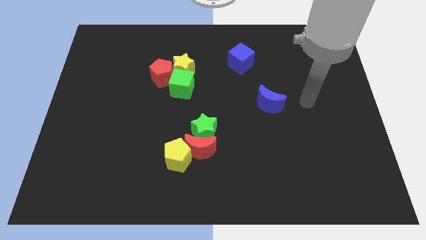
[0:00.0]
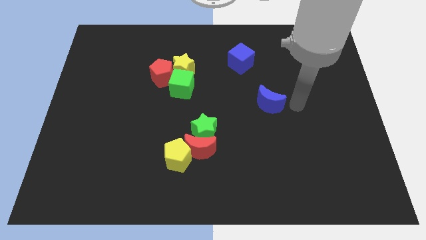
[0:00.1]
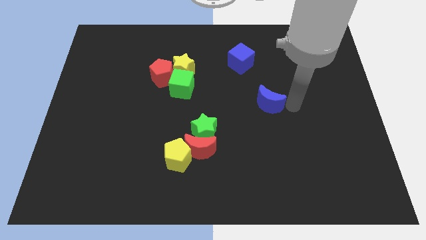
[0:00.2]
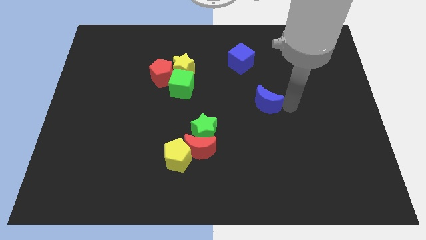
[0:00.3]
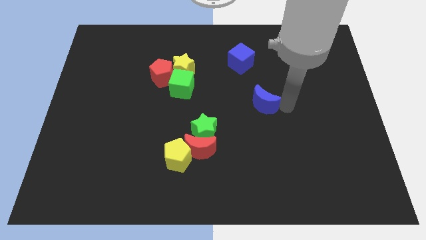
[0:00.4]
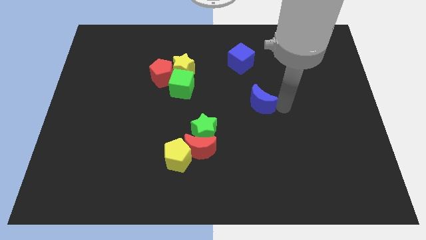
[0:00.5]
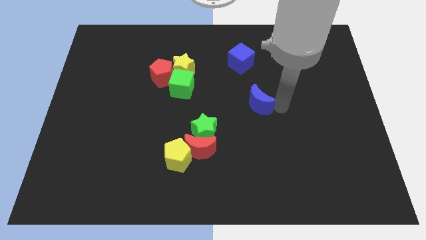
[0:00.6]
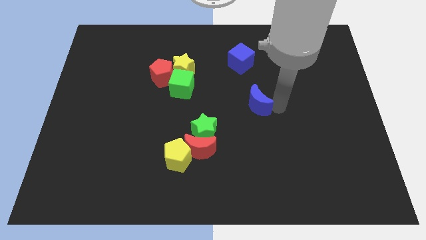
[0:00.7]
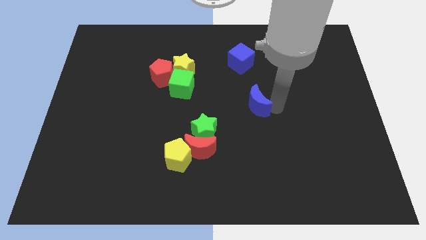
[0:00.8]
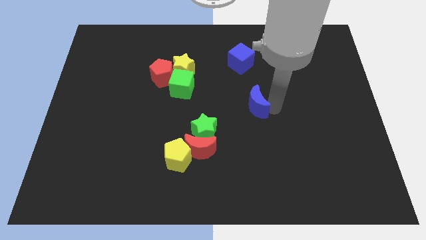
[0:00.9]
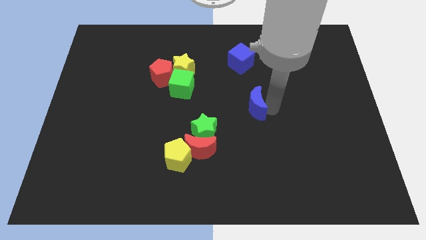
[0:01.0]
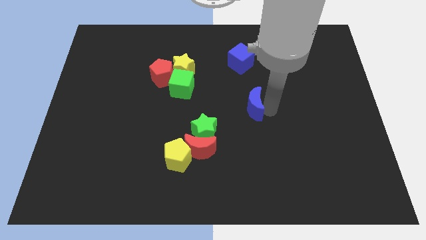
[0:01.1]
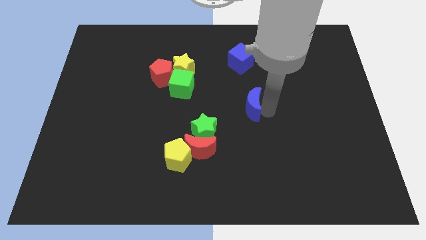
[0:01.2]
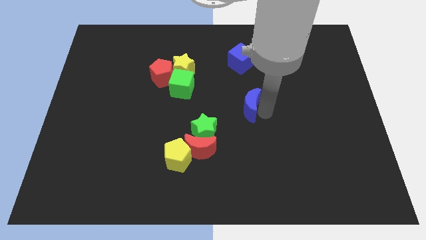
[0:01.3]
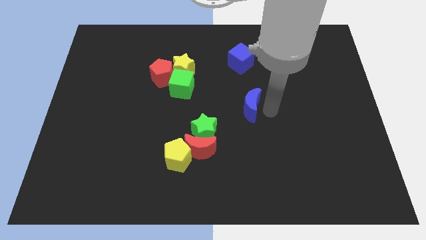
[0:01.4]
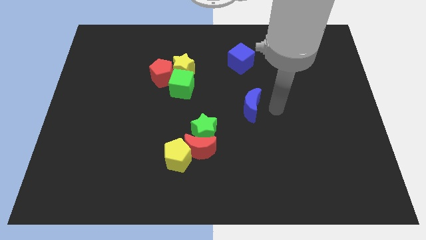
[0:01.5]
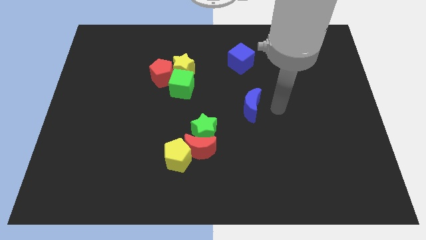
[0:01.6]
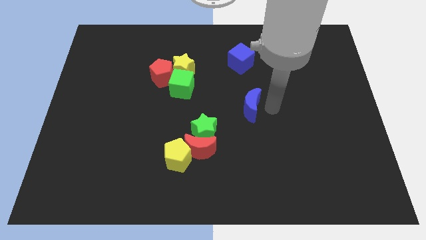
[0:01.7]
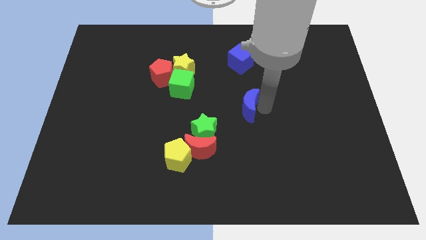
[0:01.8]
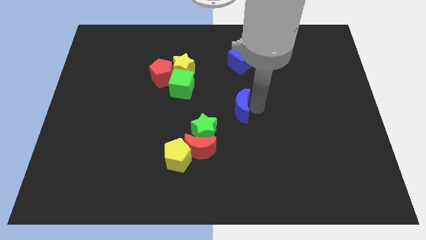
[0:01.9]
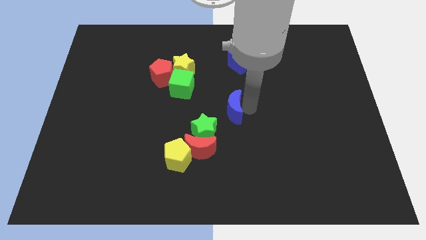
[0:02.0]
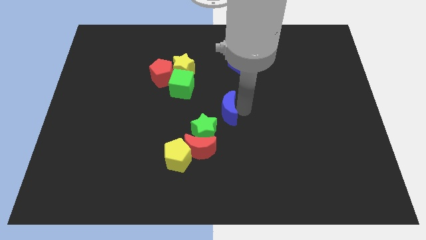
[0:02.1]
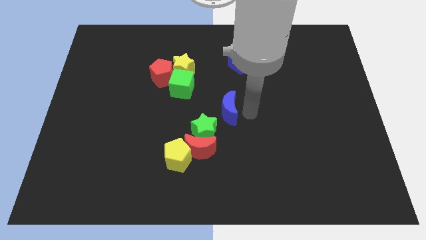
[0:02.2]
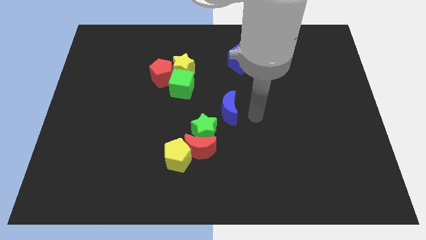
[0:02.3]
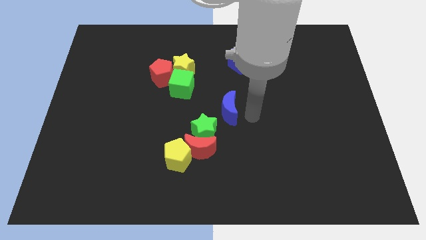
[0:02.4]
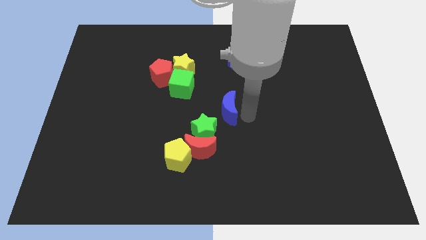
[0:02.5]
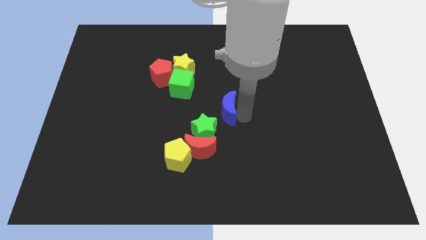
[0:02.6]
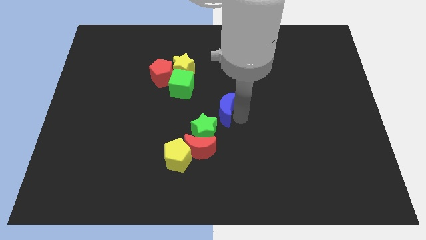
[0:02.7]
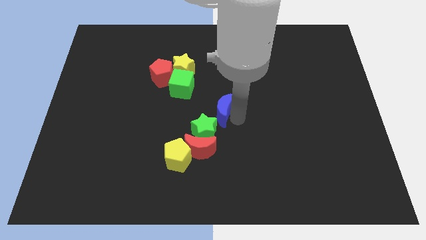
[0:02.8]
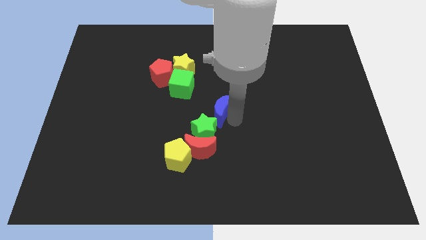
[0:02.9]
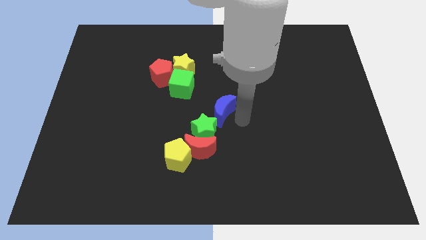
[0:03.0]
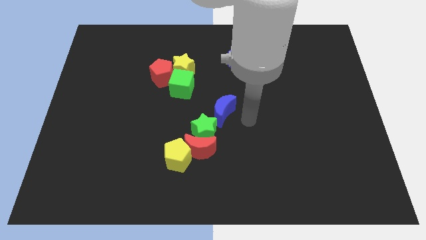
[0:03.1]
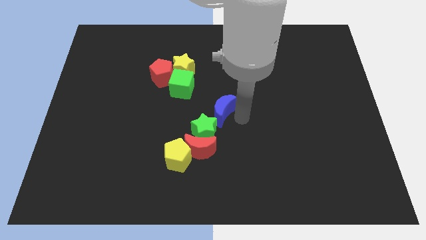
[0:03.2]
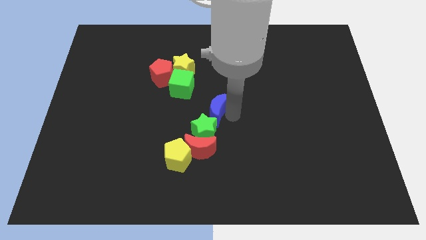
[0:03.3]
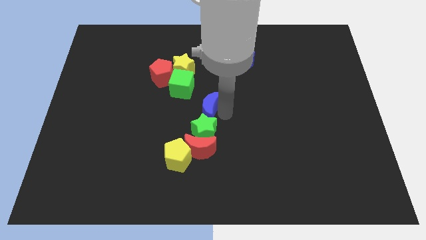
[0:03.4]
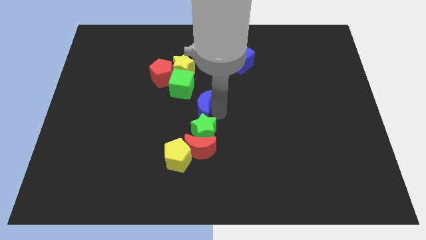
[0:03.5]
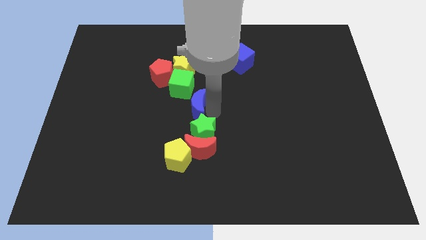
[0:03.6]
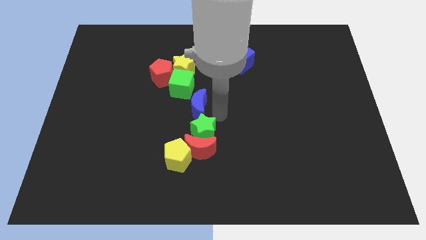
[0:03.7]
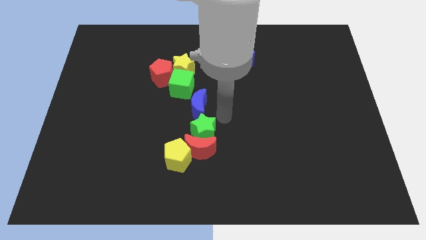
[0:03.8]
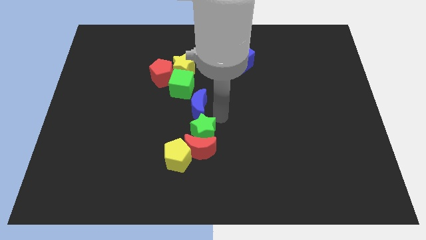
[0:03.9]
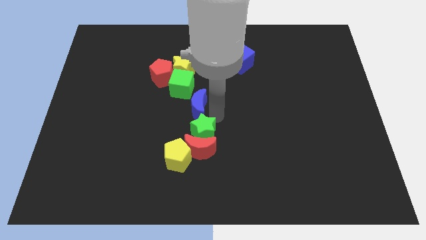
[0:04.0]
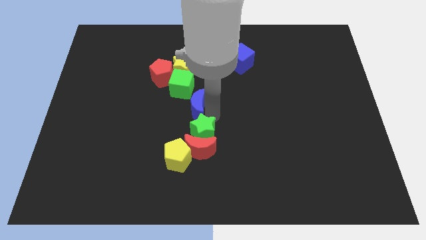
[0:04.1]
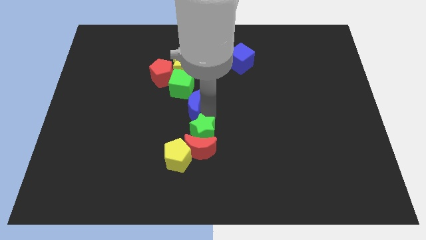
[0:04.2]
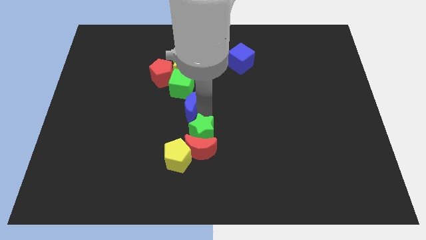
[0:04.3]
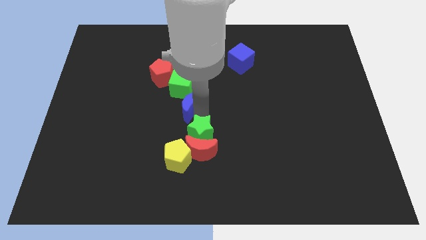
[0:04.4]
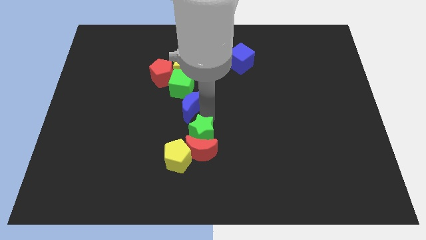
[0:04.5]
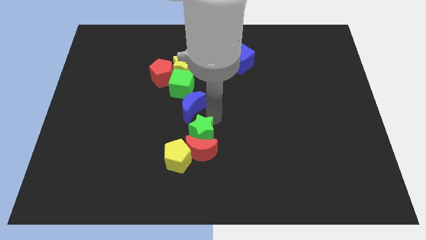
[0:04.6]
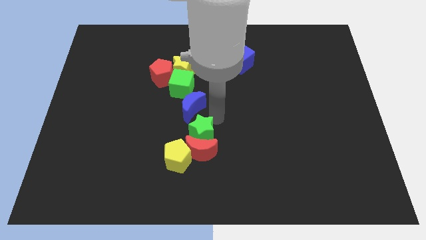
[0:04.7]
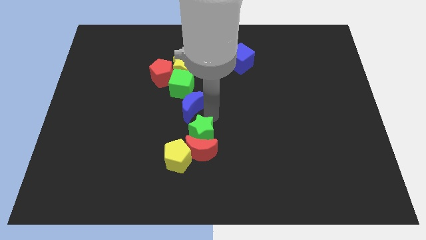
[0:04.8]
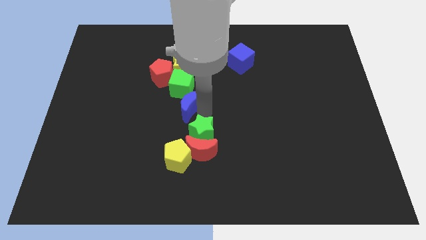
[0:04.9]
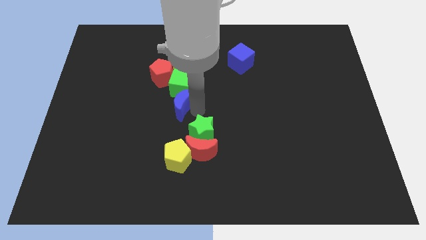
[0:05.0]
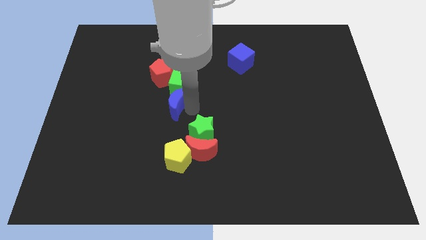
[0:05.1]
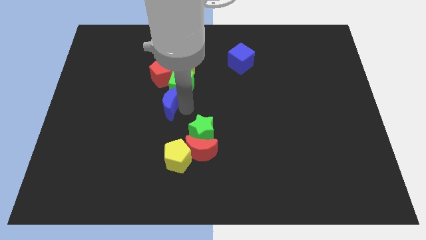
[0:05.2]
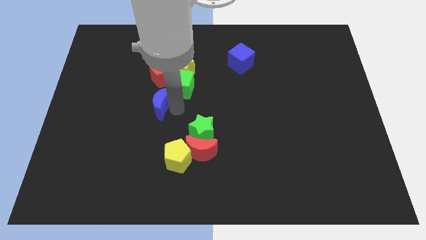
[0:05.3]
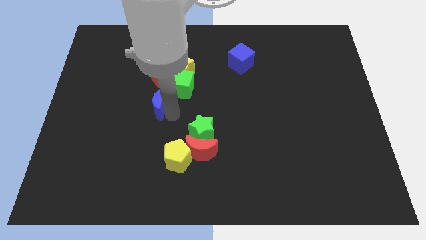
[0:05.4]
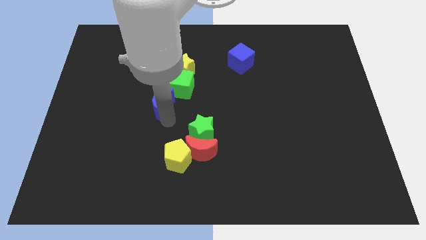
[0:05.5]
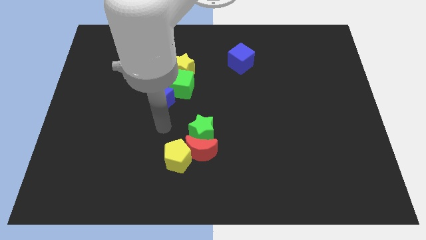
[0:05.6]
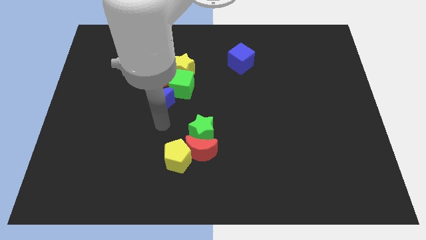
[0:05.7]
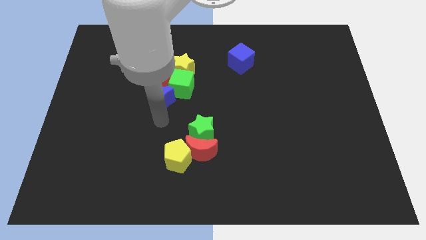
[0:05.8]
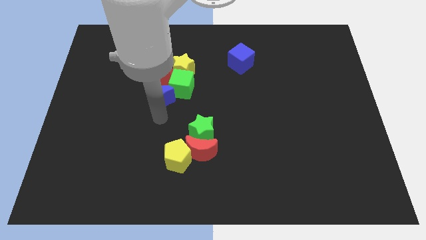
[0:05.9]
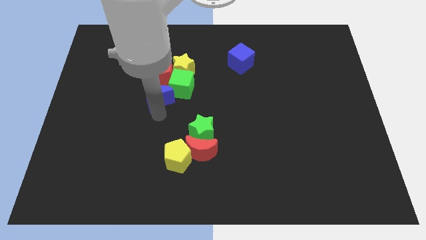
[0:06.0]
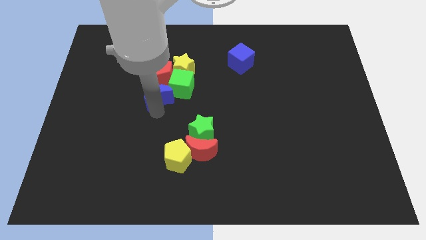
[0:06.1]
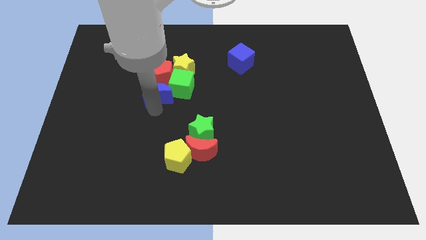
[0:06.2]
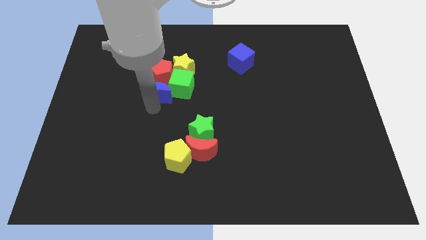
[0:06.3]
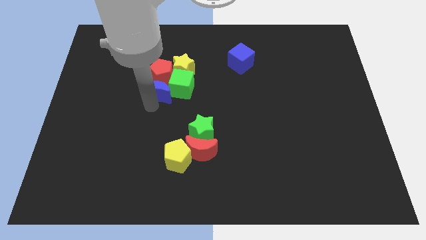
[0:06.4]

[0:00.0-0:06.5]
move the blue moon towards the red pentagon
